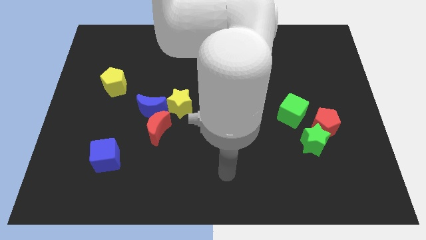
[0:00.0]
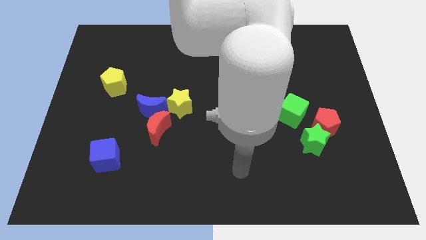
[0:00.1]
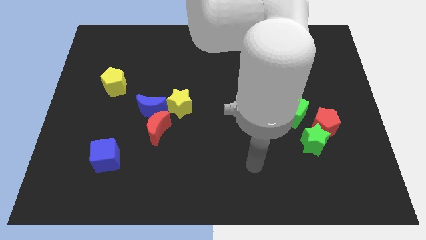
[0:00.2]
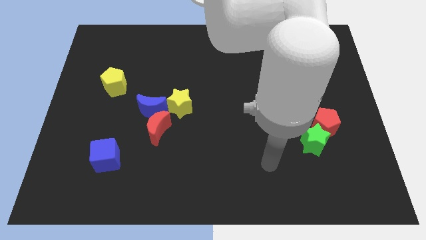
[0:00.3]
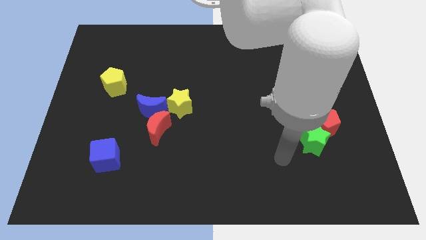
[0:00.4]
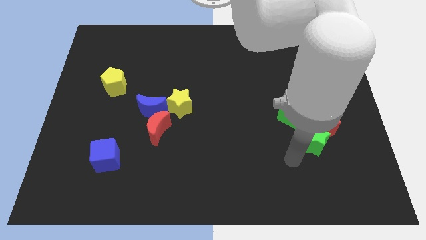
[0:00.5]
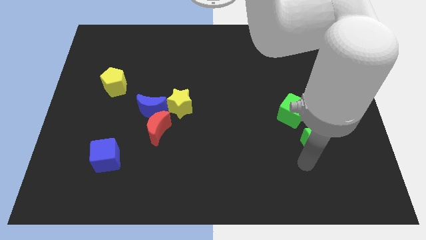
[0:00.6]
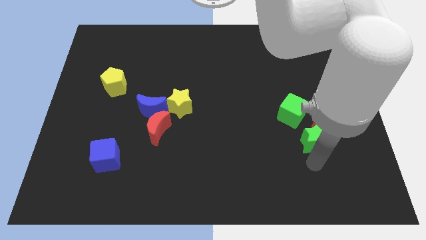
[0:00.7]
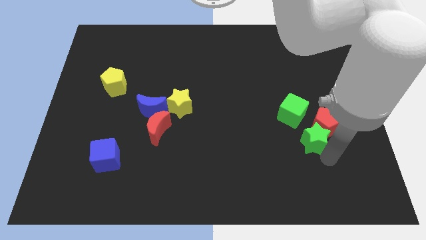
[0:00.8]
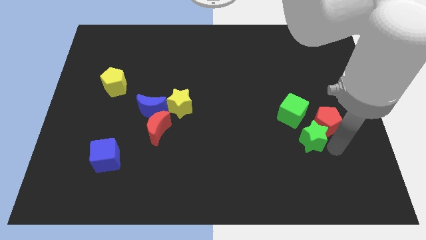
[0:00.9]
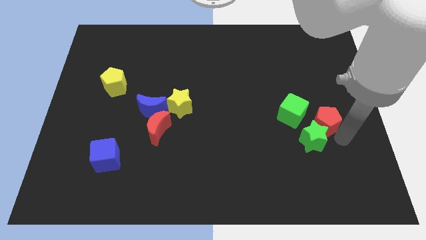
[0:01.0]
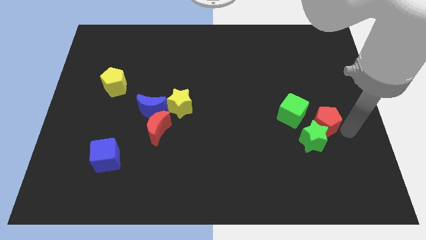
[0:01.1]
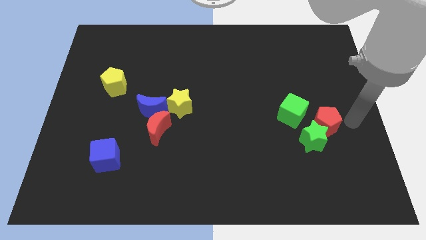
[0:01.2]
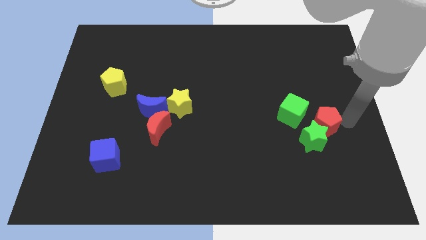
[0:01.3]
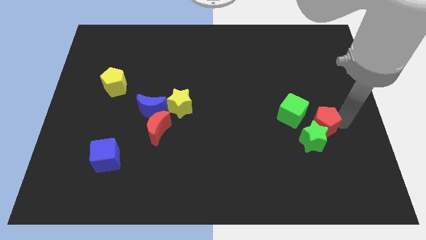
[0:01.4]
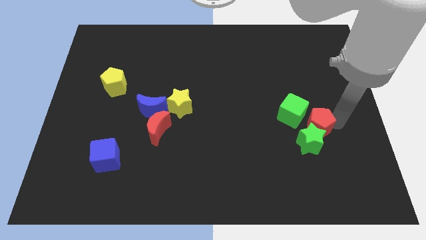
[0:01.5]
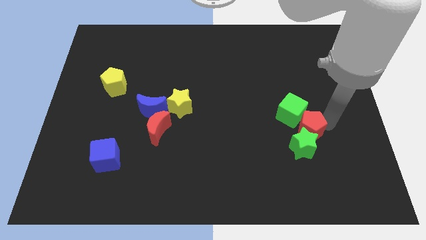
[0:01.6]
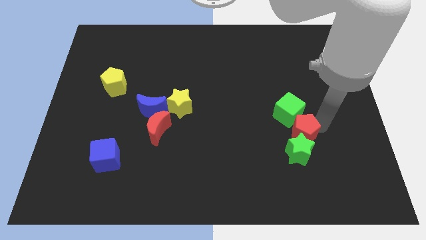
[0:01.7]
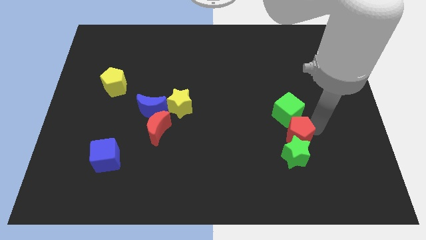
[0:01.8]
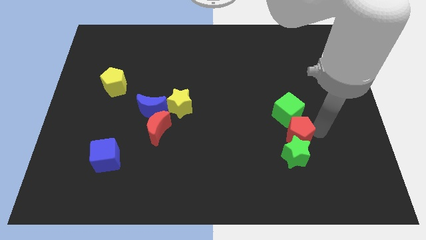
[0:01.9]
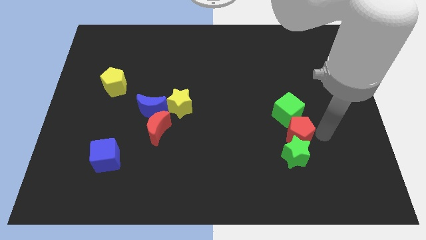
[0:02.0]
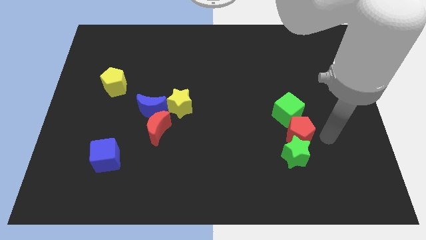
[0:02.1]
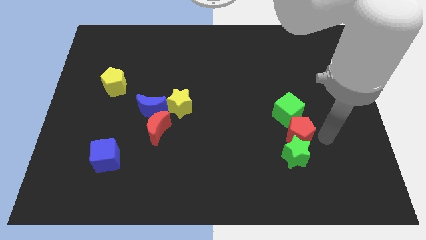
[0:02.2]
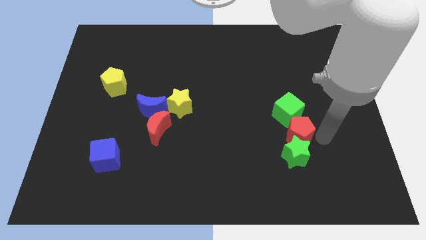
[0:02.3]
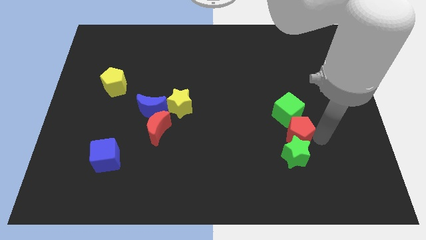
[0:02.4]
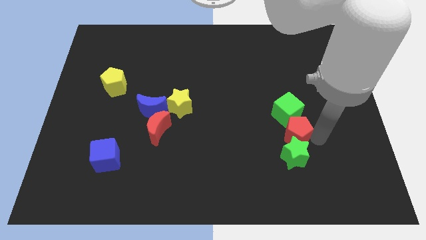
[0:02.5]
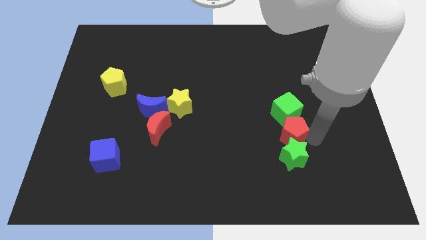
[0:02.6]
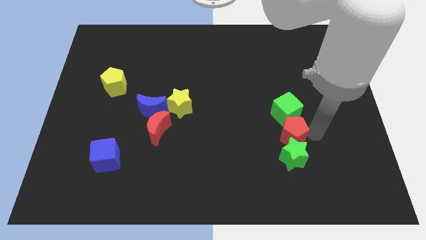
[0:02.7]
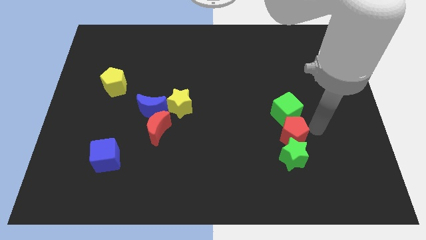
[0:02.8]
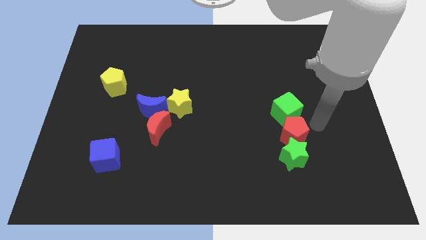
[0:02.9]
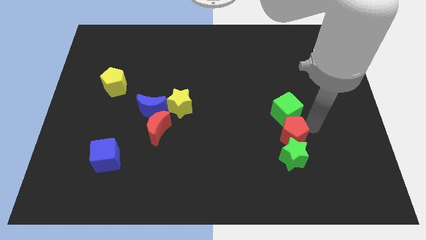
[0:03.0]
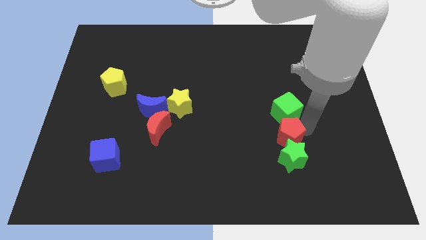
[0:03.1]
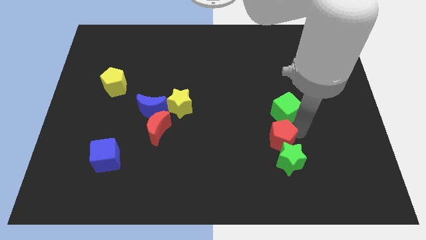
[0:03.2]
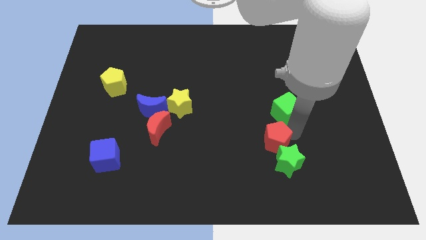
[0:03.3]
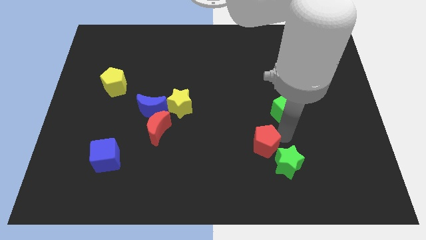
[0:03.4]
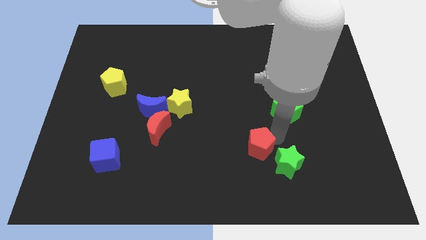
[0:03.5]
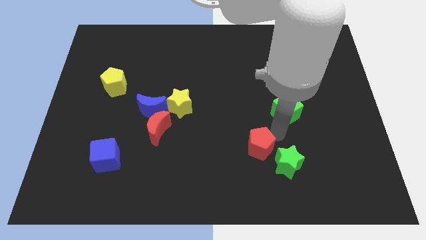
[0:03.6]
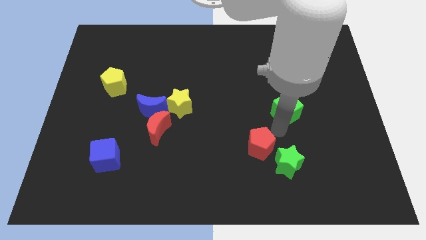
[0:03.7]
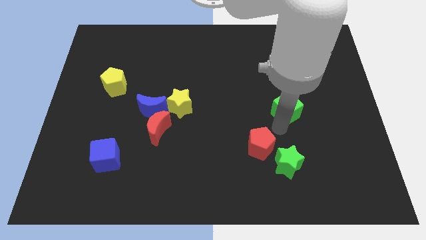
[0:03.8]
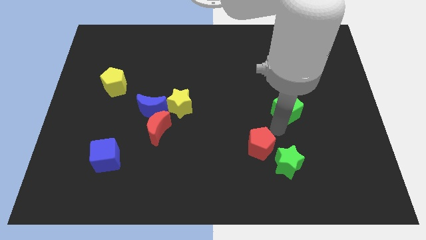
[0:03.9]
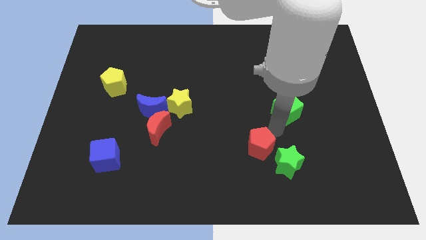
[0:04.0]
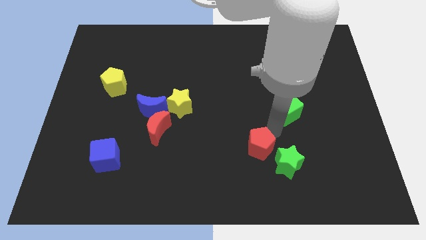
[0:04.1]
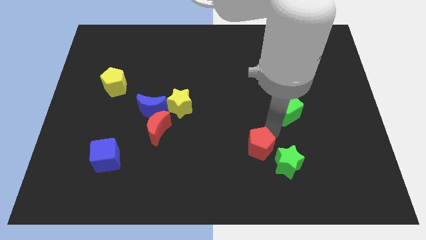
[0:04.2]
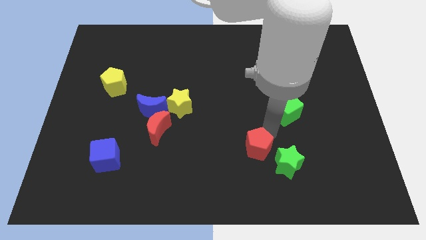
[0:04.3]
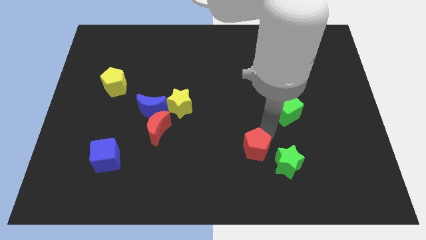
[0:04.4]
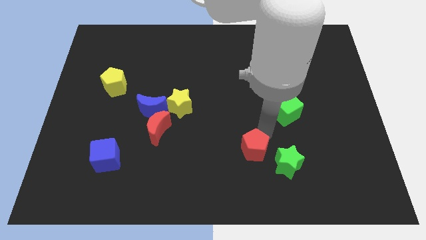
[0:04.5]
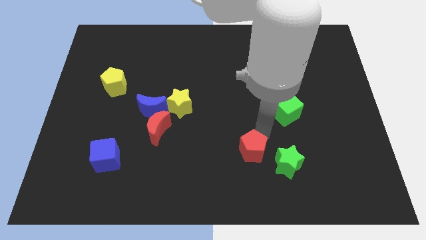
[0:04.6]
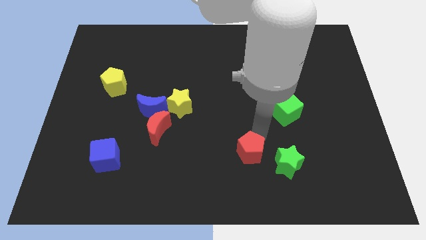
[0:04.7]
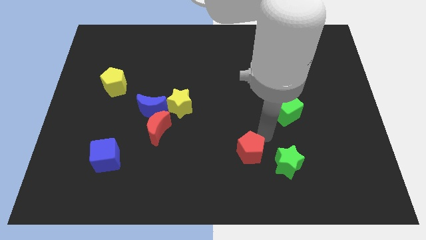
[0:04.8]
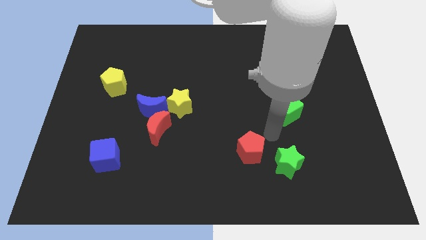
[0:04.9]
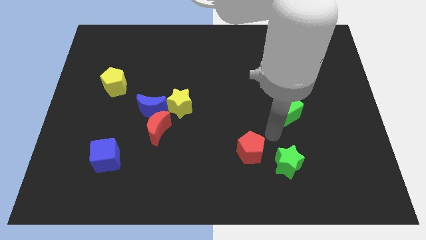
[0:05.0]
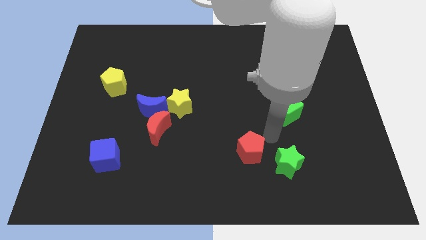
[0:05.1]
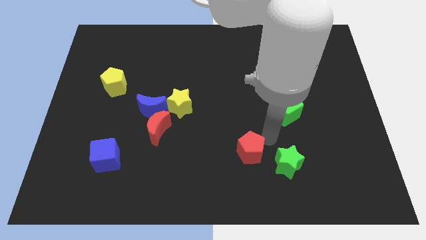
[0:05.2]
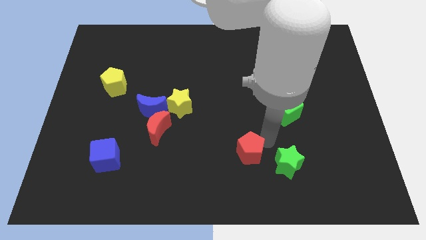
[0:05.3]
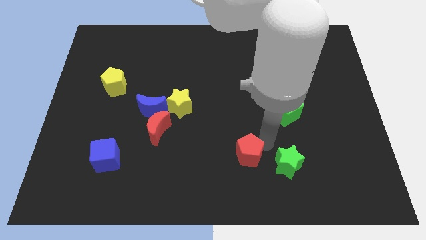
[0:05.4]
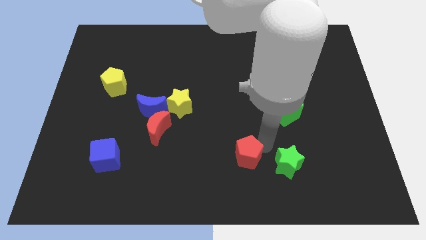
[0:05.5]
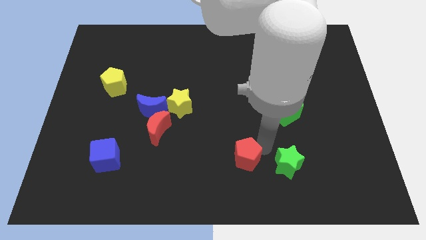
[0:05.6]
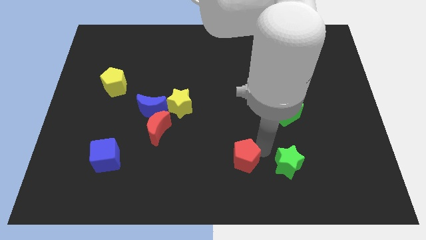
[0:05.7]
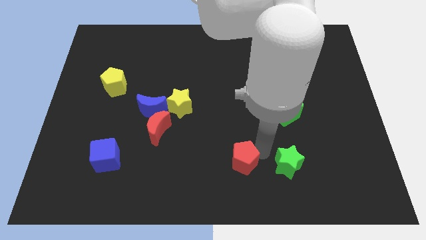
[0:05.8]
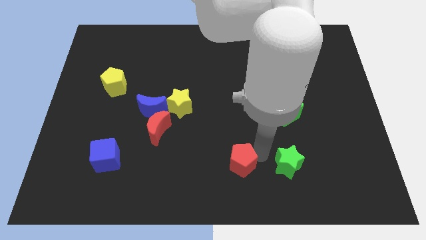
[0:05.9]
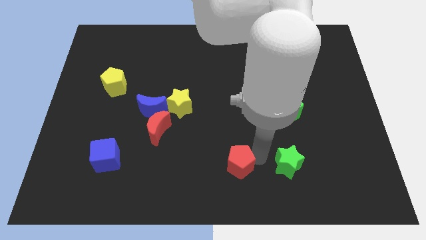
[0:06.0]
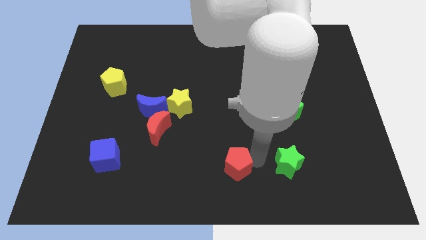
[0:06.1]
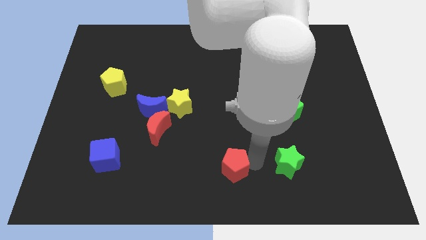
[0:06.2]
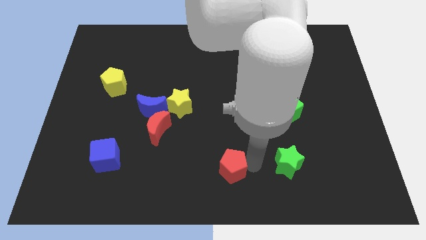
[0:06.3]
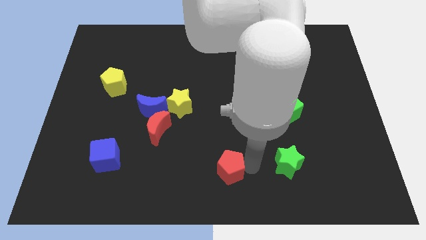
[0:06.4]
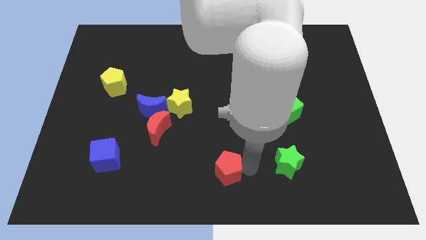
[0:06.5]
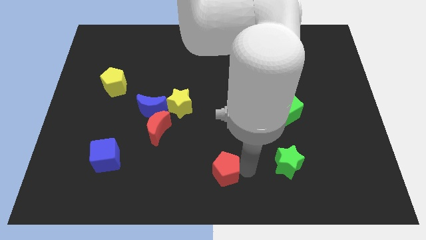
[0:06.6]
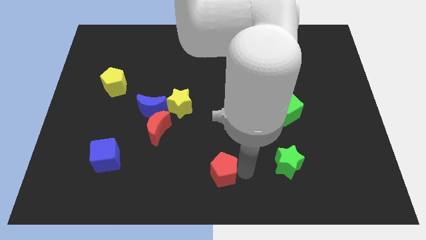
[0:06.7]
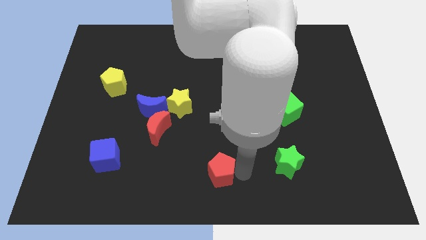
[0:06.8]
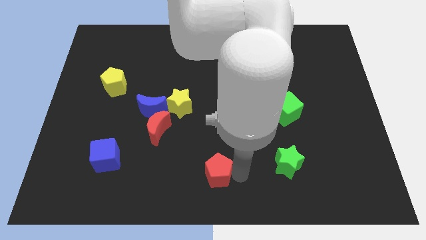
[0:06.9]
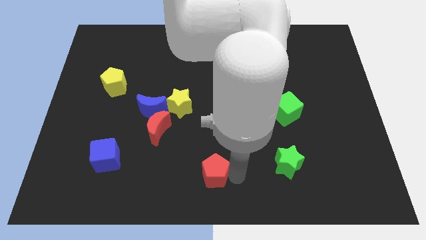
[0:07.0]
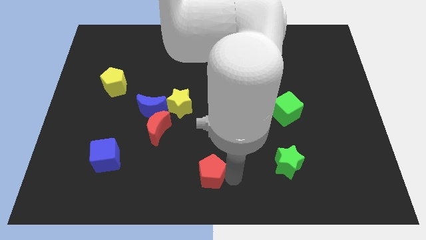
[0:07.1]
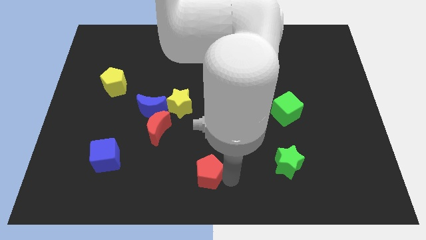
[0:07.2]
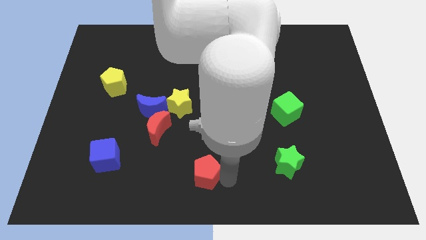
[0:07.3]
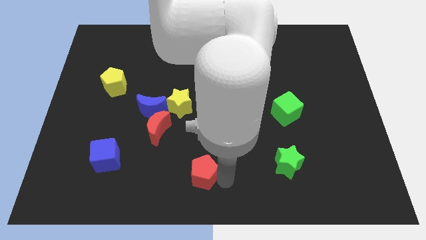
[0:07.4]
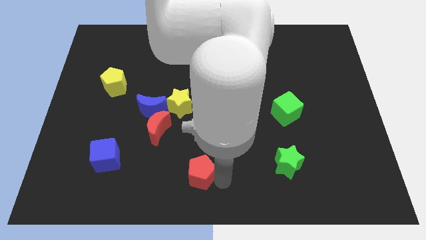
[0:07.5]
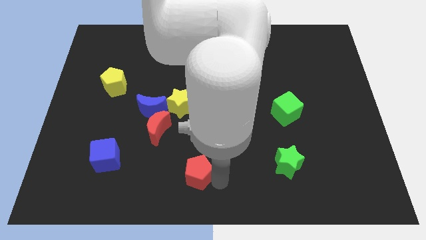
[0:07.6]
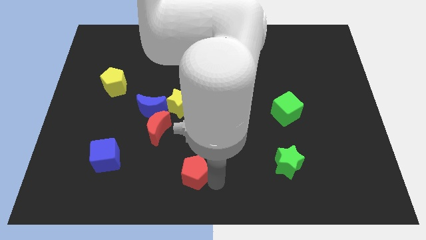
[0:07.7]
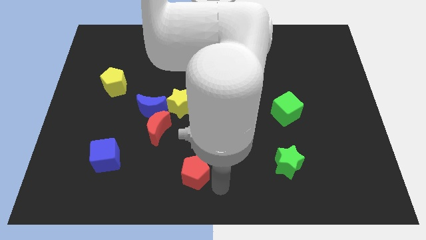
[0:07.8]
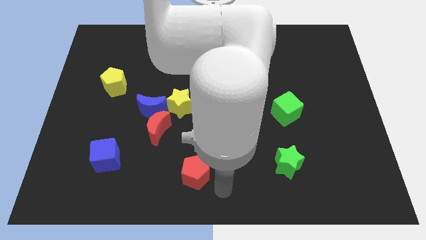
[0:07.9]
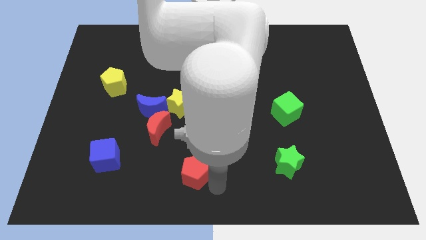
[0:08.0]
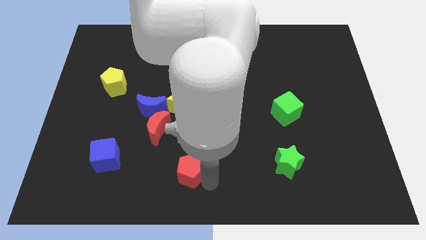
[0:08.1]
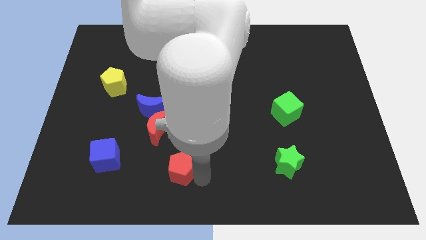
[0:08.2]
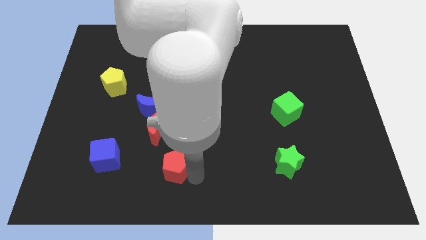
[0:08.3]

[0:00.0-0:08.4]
put the red pentagon to the right of the blue cube
